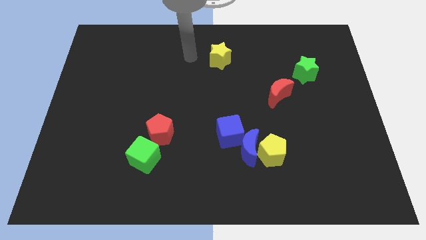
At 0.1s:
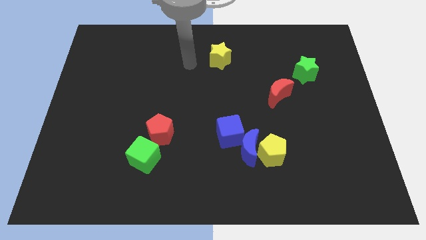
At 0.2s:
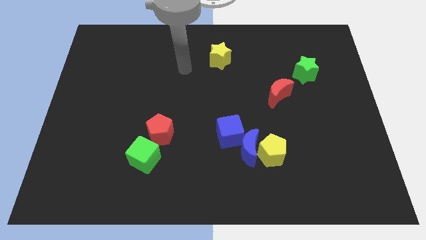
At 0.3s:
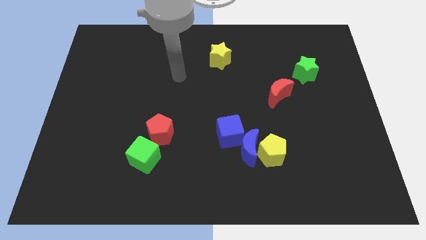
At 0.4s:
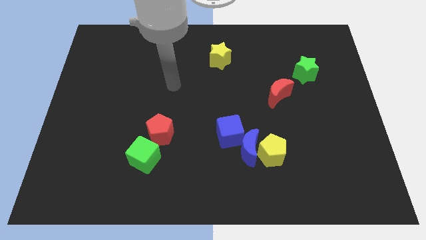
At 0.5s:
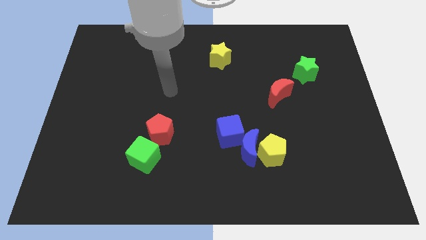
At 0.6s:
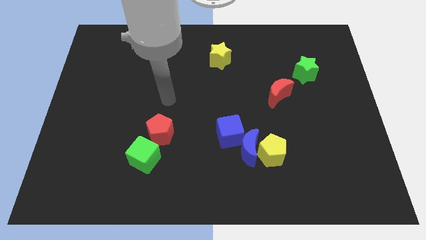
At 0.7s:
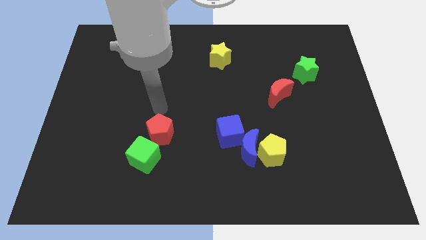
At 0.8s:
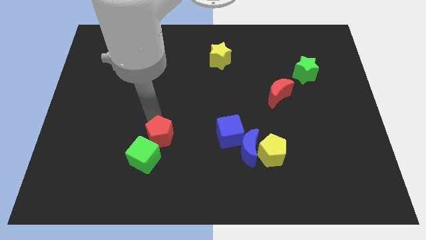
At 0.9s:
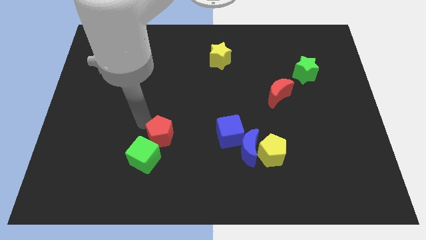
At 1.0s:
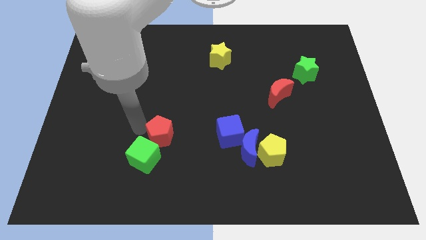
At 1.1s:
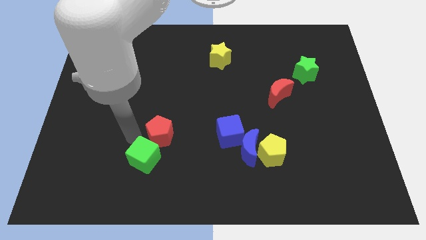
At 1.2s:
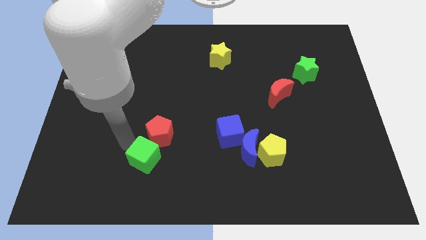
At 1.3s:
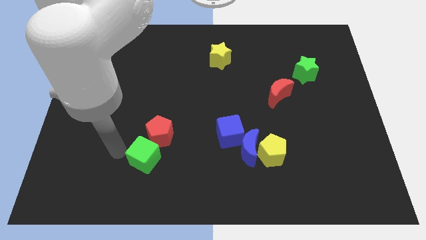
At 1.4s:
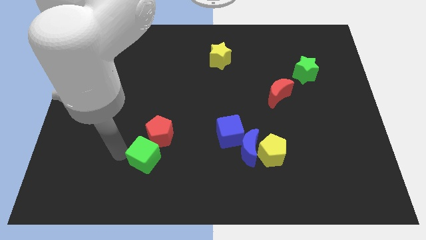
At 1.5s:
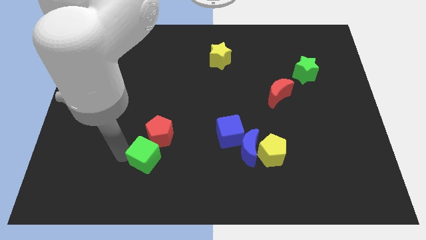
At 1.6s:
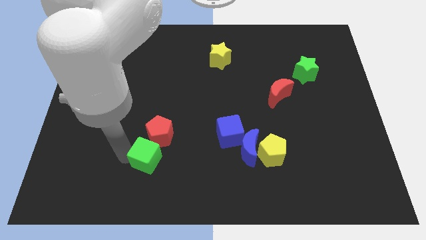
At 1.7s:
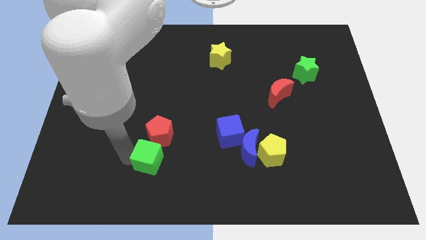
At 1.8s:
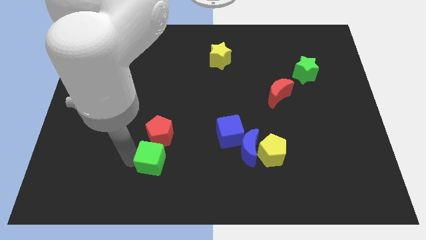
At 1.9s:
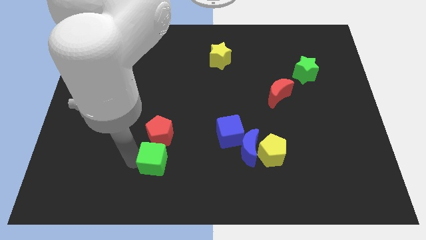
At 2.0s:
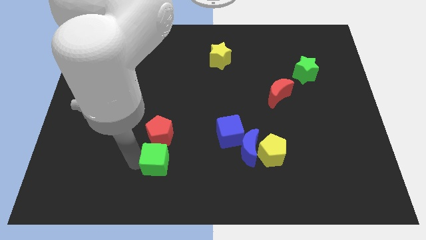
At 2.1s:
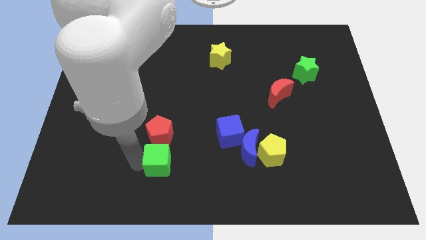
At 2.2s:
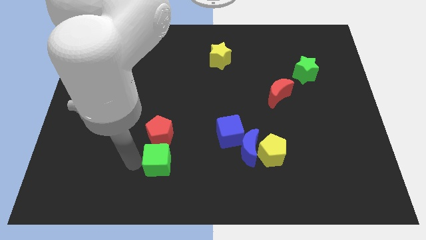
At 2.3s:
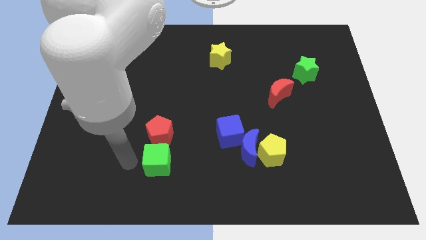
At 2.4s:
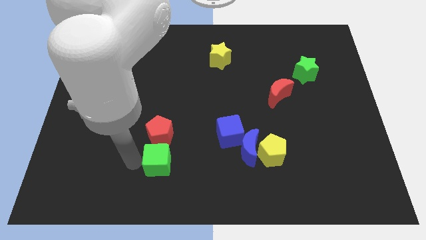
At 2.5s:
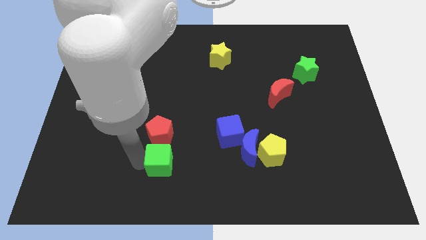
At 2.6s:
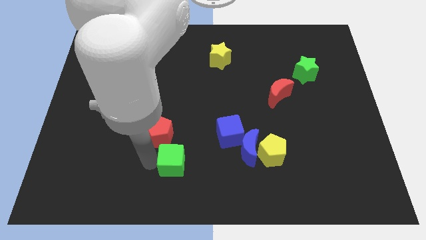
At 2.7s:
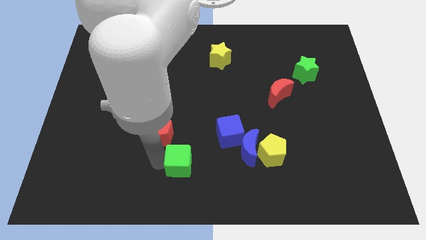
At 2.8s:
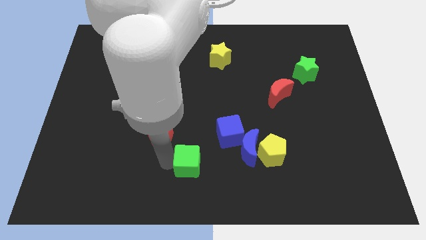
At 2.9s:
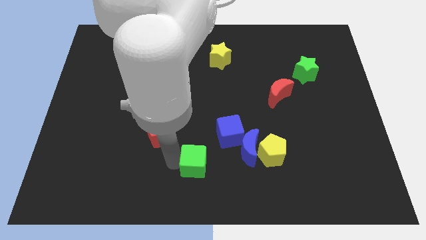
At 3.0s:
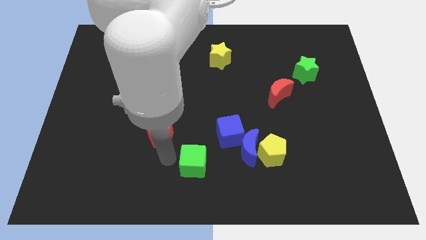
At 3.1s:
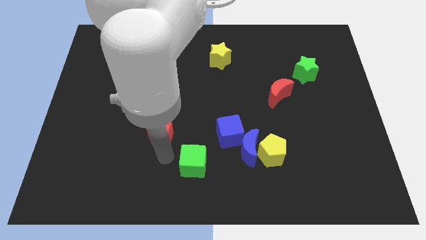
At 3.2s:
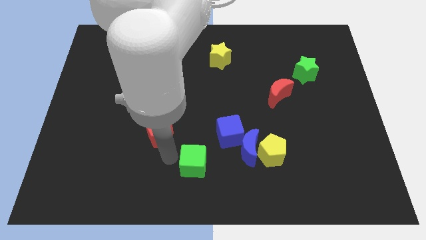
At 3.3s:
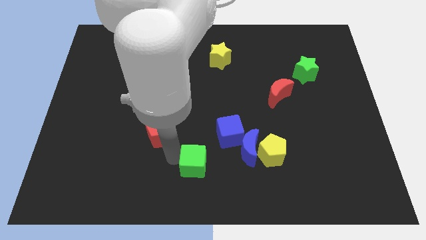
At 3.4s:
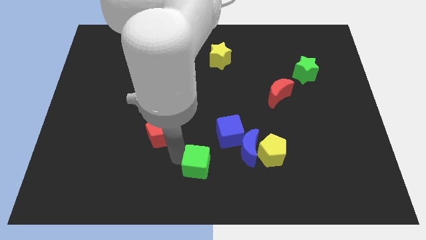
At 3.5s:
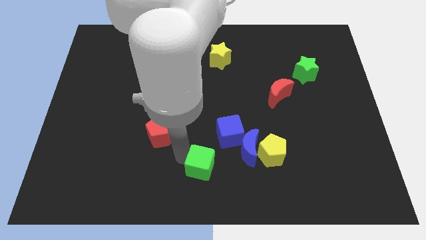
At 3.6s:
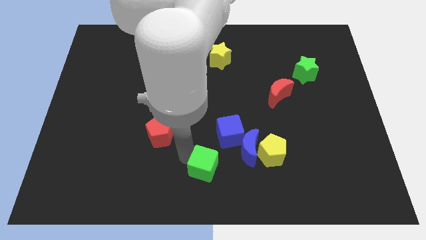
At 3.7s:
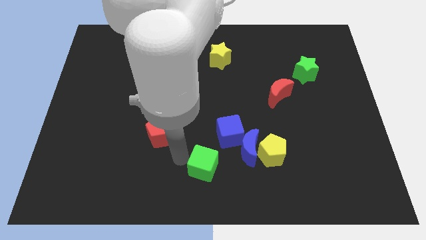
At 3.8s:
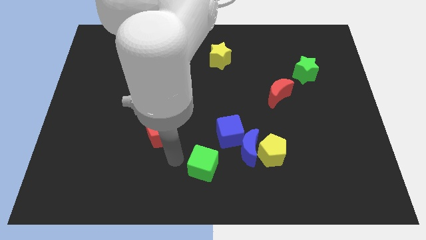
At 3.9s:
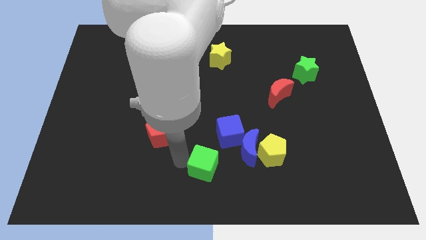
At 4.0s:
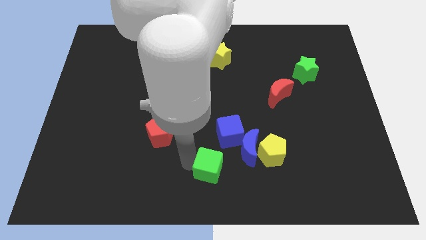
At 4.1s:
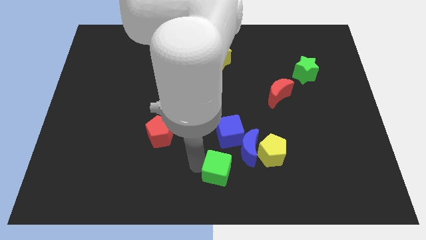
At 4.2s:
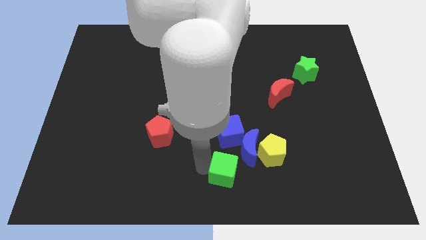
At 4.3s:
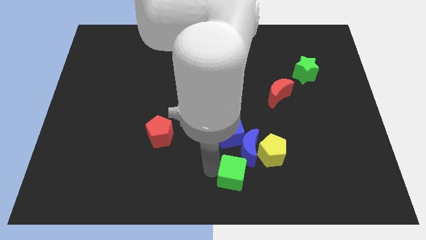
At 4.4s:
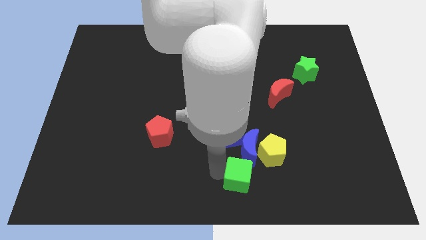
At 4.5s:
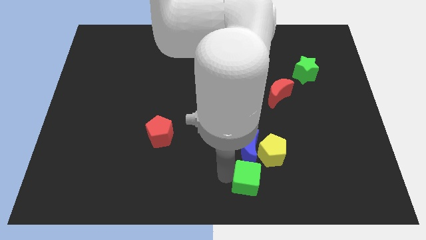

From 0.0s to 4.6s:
push the green cube right

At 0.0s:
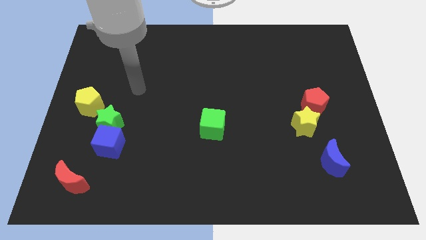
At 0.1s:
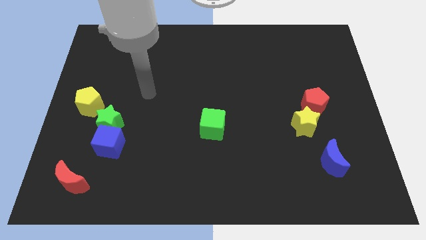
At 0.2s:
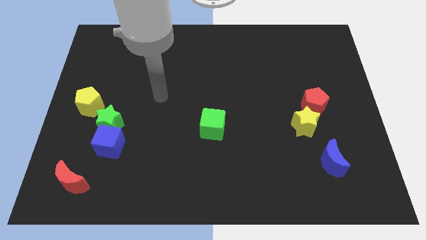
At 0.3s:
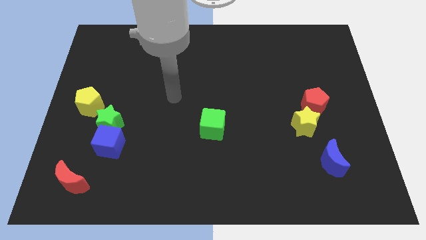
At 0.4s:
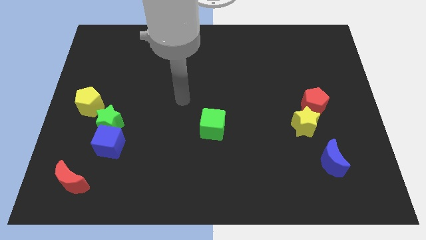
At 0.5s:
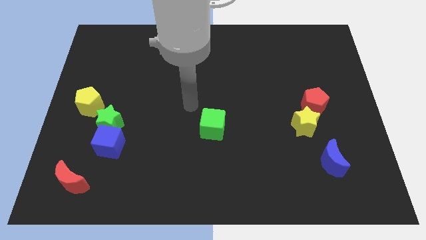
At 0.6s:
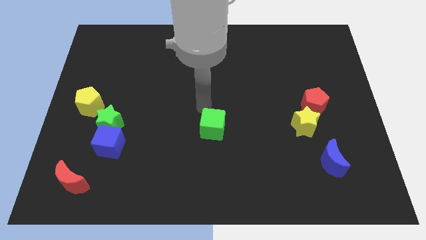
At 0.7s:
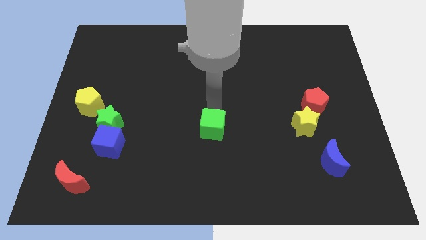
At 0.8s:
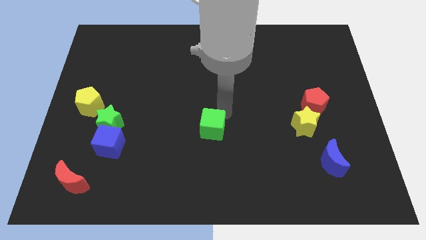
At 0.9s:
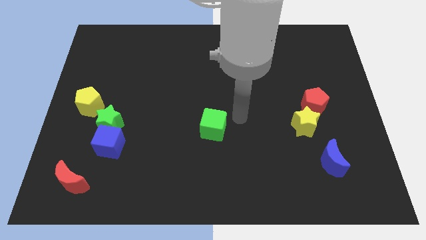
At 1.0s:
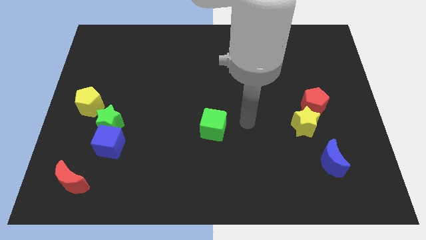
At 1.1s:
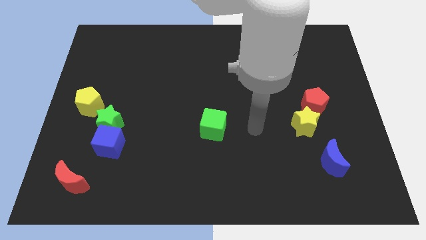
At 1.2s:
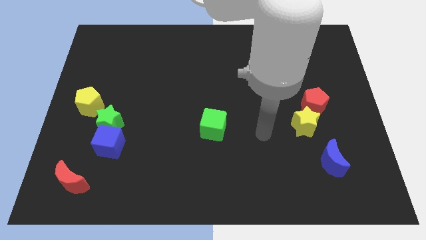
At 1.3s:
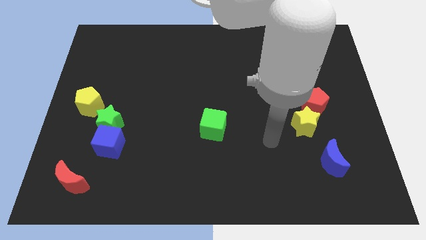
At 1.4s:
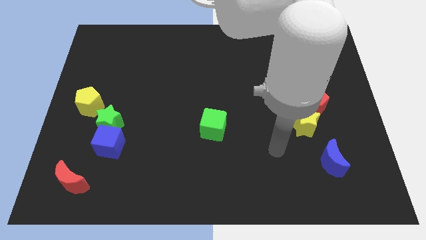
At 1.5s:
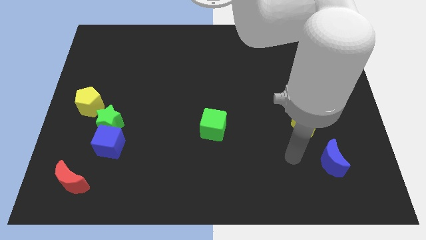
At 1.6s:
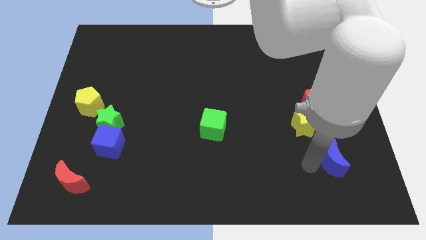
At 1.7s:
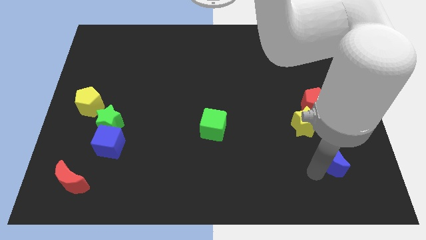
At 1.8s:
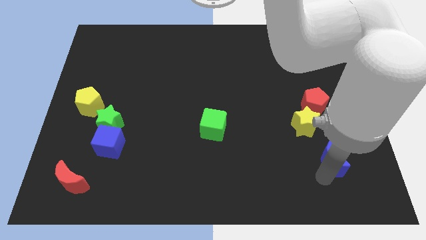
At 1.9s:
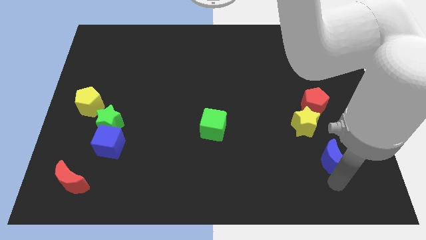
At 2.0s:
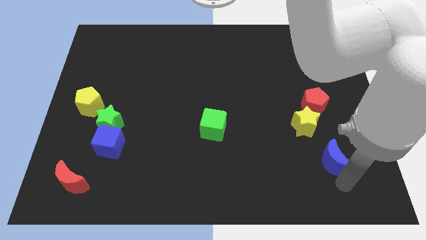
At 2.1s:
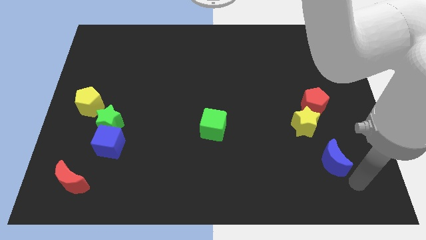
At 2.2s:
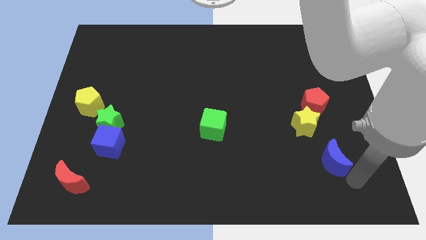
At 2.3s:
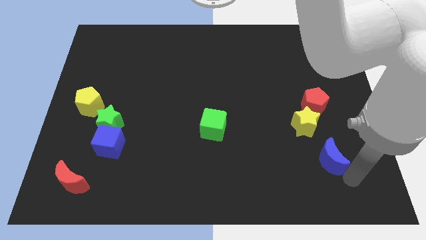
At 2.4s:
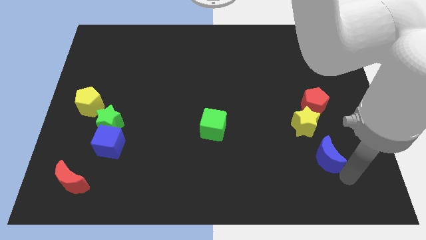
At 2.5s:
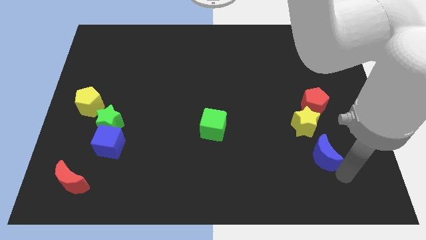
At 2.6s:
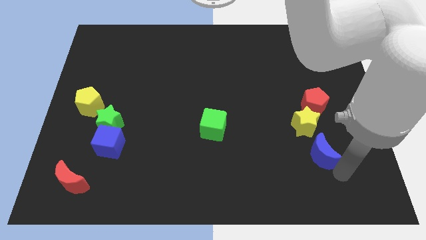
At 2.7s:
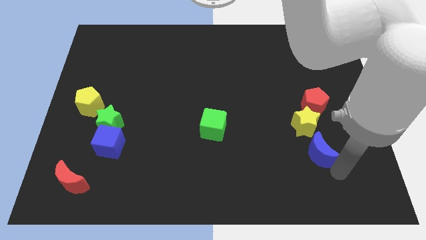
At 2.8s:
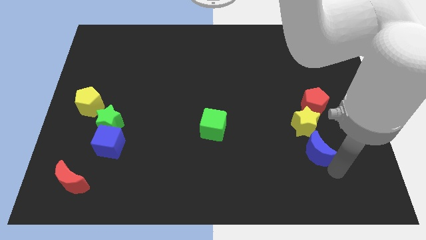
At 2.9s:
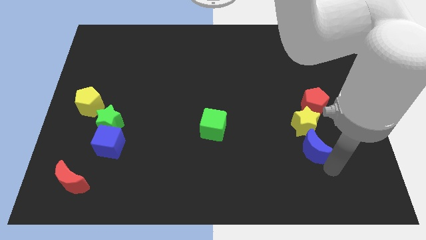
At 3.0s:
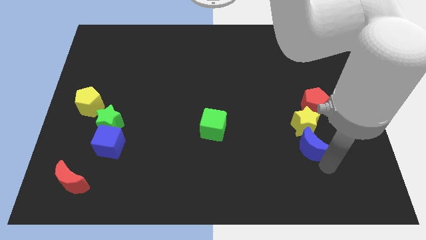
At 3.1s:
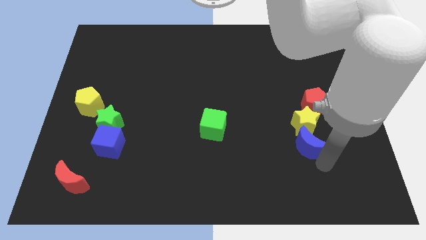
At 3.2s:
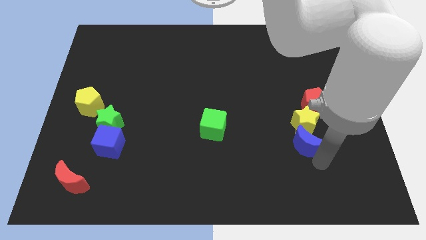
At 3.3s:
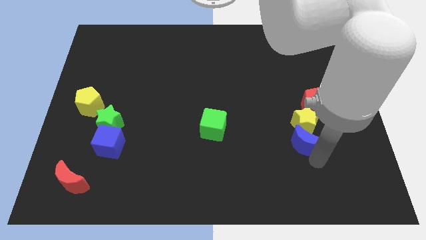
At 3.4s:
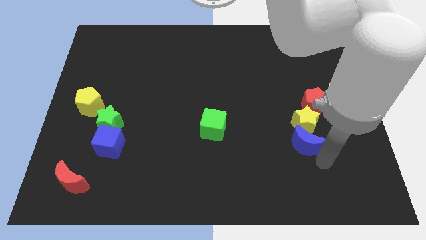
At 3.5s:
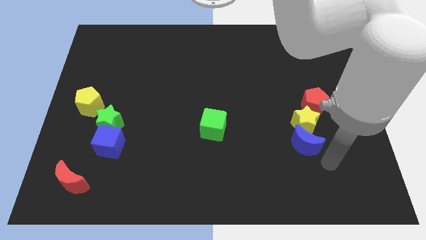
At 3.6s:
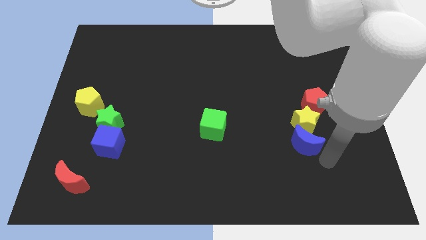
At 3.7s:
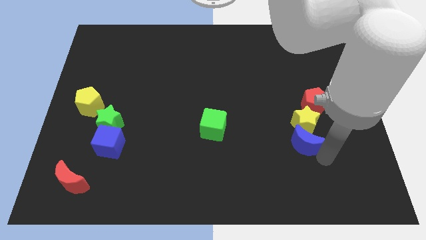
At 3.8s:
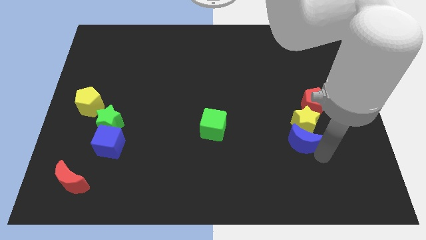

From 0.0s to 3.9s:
move the blue moon upwards and left diagonally slightly
